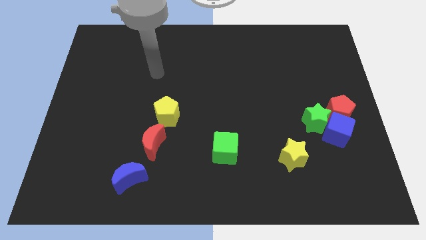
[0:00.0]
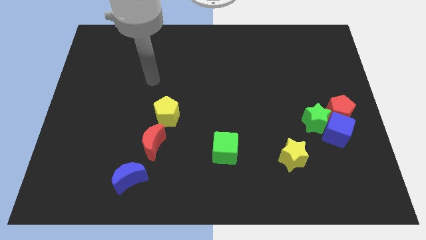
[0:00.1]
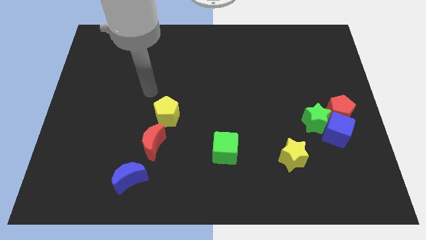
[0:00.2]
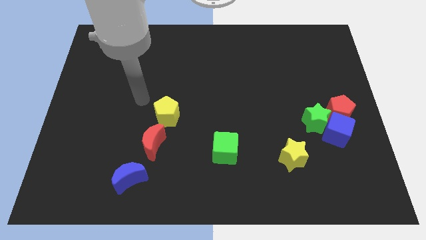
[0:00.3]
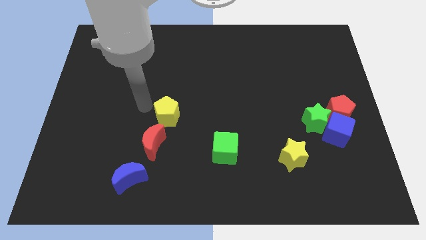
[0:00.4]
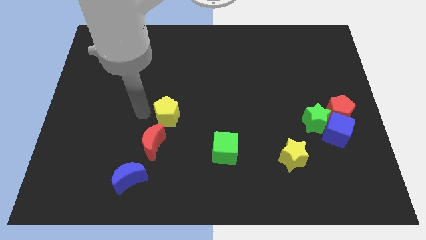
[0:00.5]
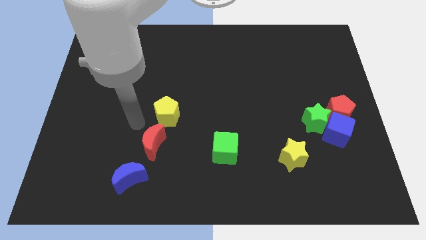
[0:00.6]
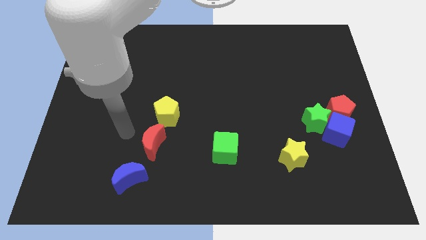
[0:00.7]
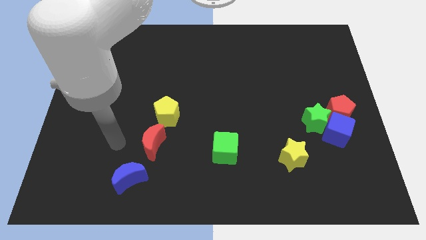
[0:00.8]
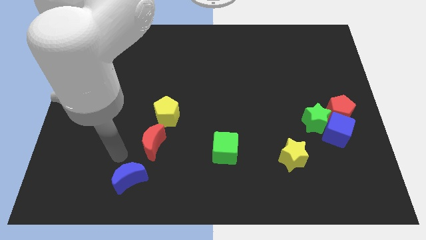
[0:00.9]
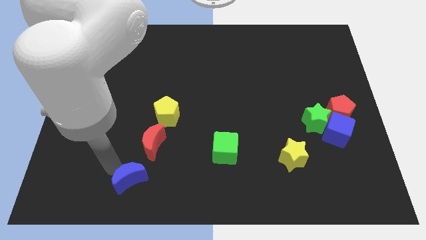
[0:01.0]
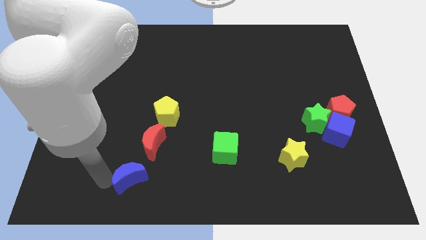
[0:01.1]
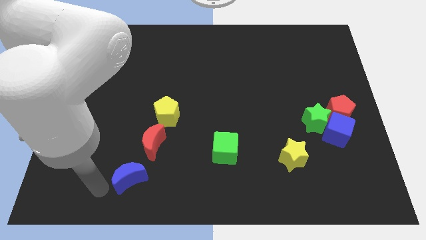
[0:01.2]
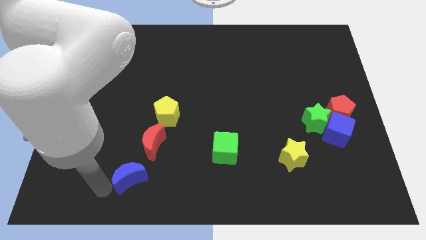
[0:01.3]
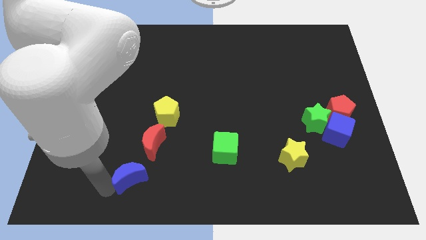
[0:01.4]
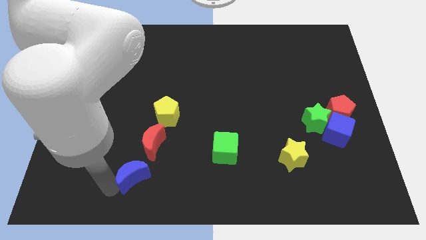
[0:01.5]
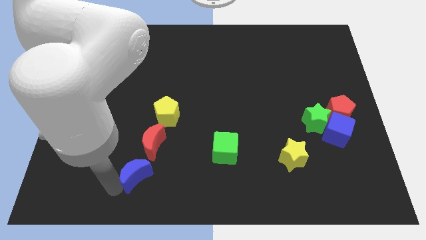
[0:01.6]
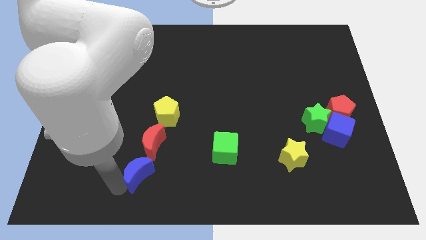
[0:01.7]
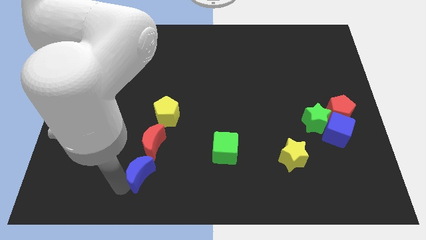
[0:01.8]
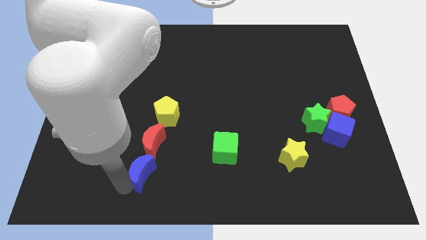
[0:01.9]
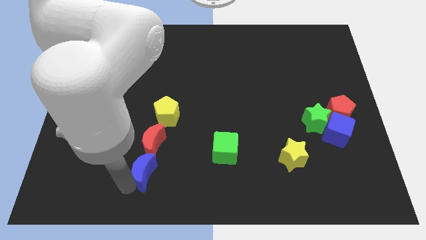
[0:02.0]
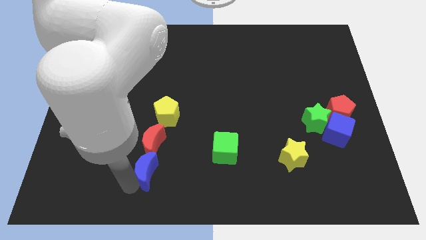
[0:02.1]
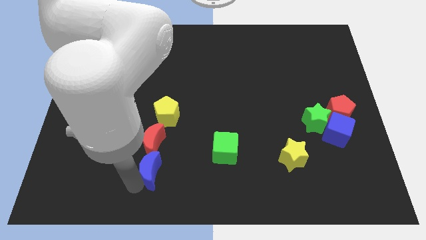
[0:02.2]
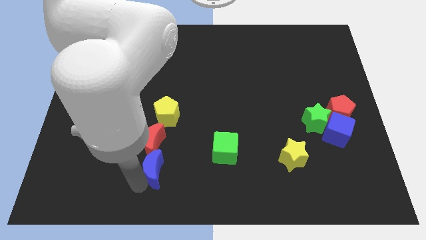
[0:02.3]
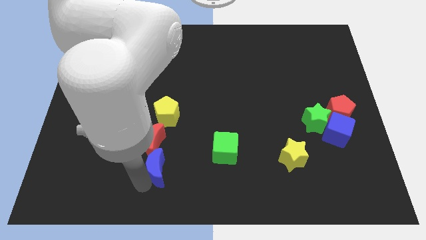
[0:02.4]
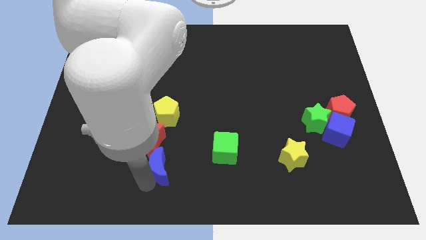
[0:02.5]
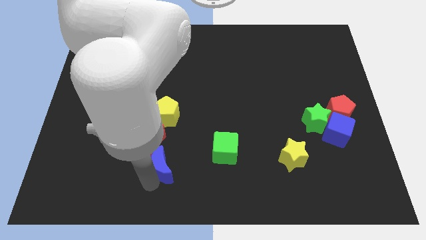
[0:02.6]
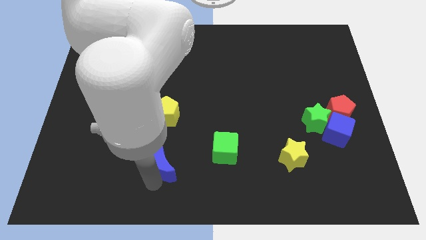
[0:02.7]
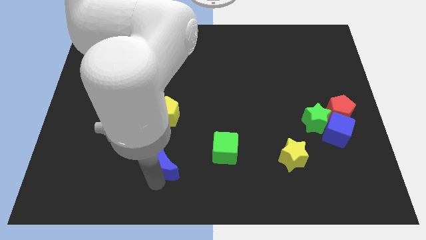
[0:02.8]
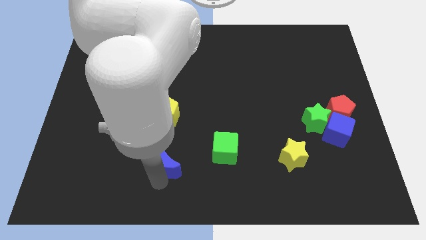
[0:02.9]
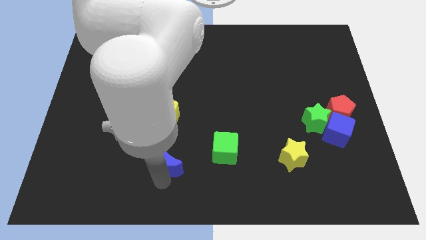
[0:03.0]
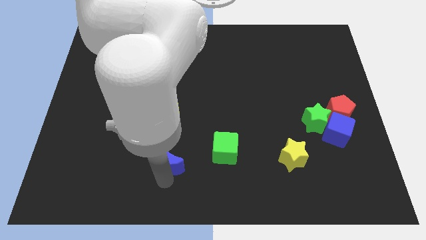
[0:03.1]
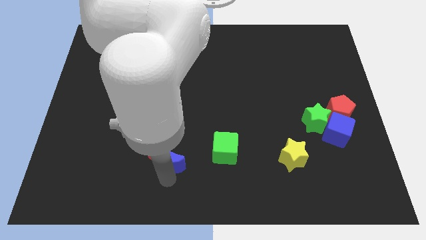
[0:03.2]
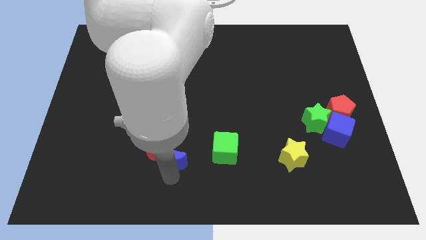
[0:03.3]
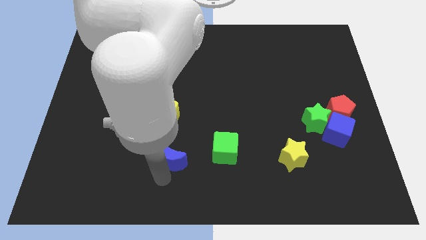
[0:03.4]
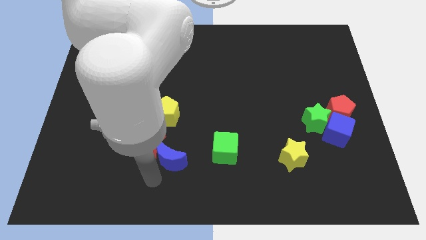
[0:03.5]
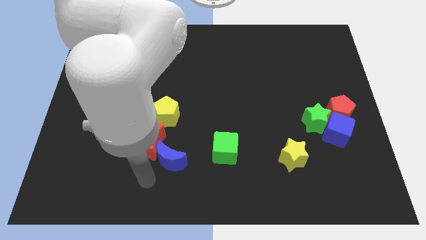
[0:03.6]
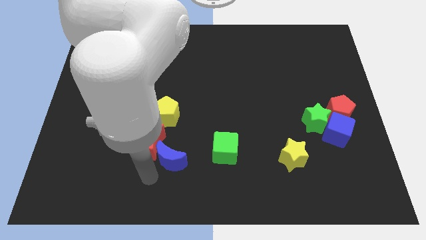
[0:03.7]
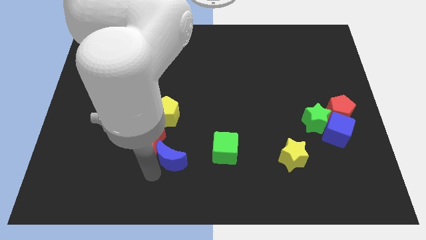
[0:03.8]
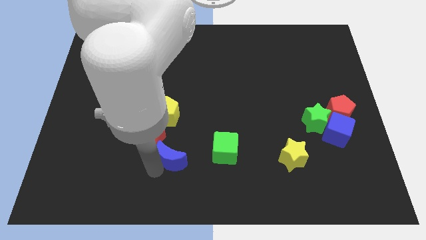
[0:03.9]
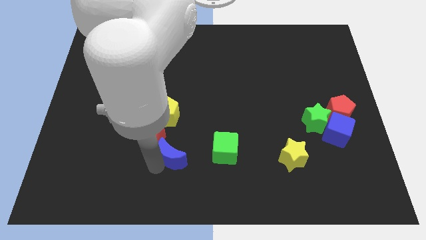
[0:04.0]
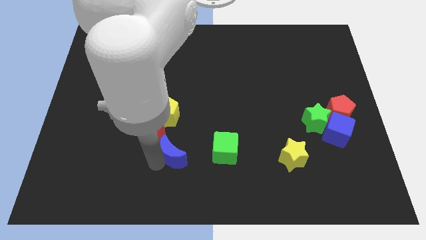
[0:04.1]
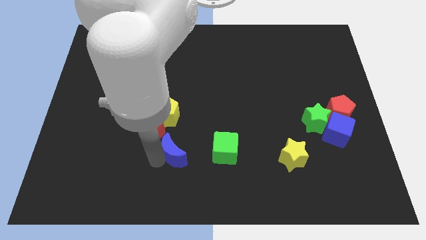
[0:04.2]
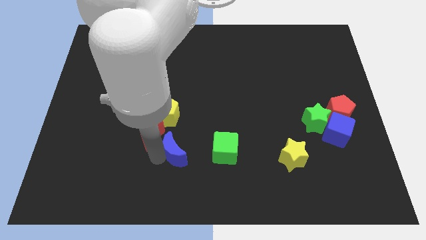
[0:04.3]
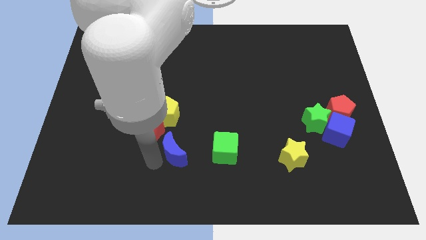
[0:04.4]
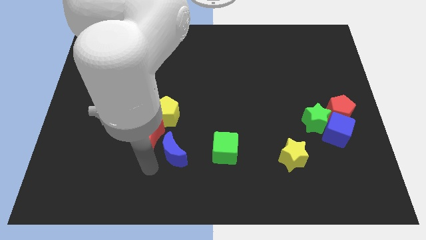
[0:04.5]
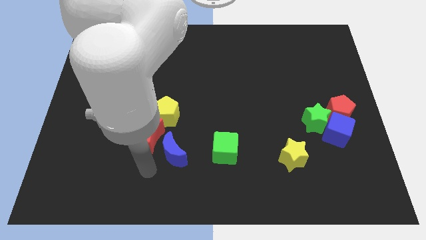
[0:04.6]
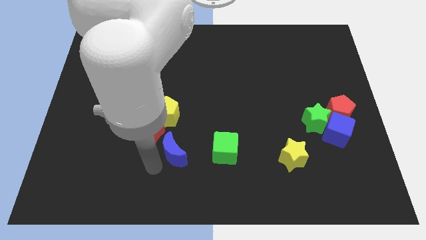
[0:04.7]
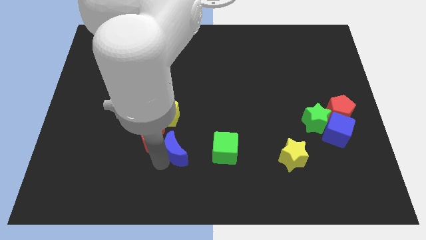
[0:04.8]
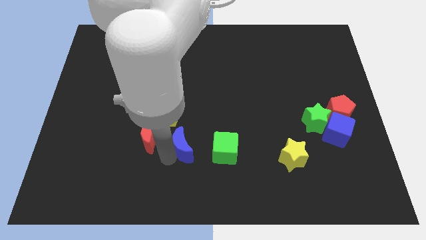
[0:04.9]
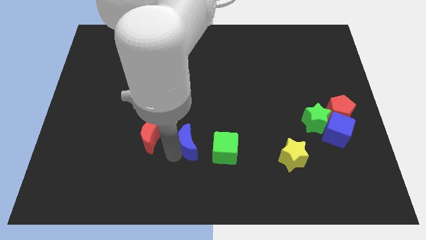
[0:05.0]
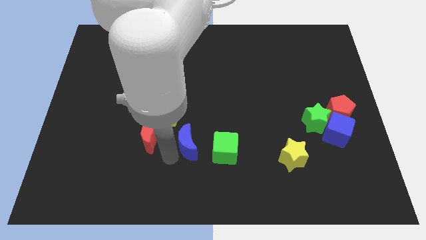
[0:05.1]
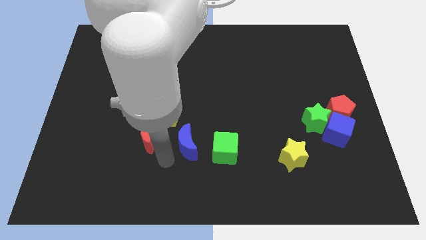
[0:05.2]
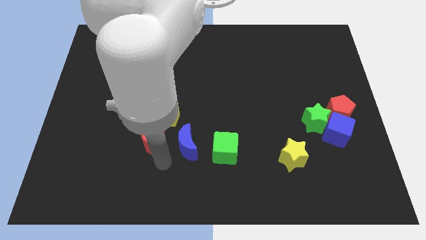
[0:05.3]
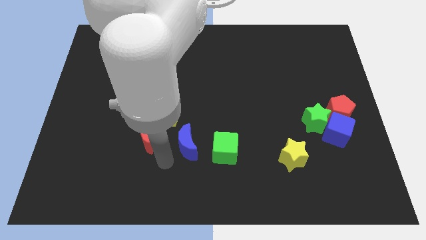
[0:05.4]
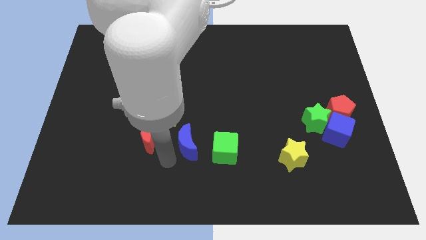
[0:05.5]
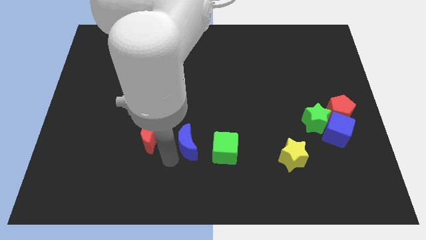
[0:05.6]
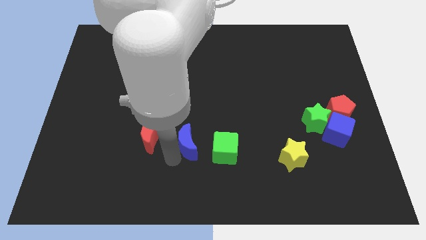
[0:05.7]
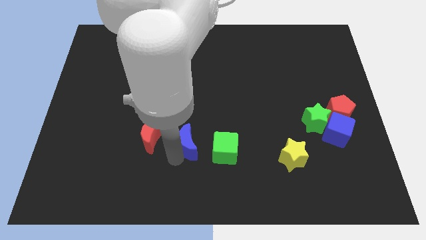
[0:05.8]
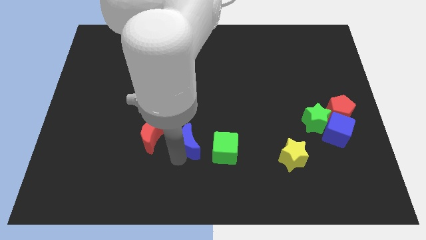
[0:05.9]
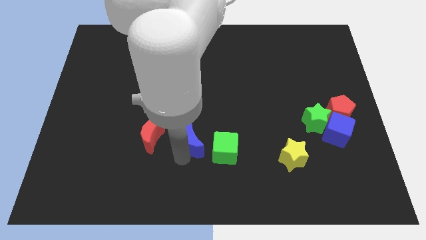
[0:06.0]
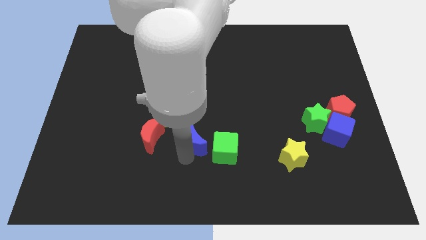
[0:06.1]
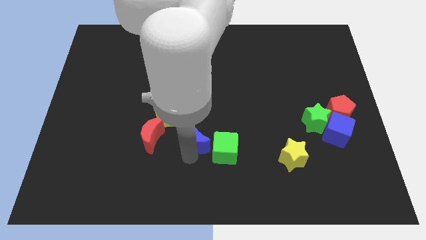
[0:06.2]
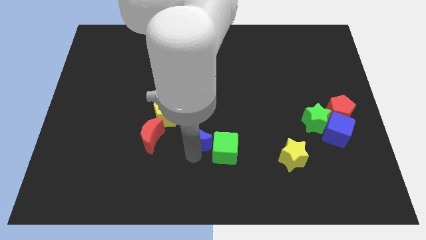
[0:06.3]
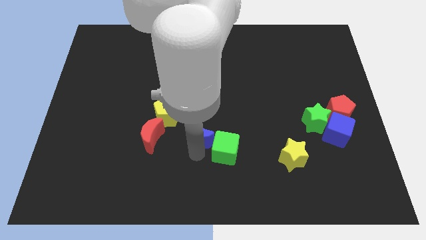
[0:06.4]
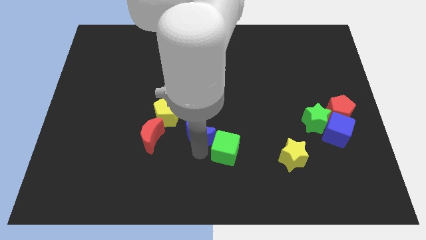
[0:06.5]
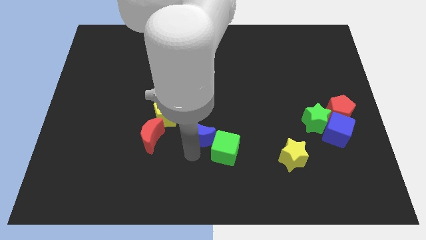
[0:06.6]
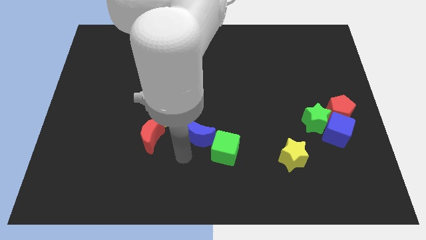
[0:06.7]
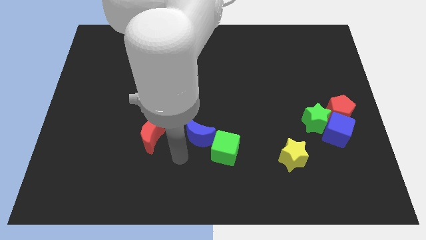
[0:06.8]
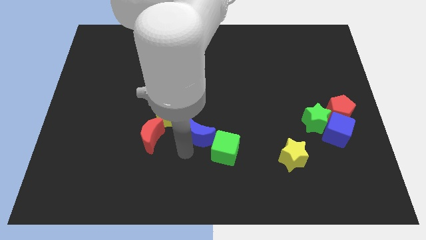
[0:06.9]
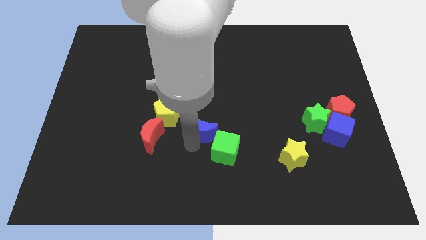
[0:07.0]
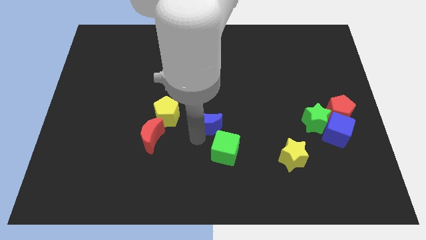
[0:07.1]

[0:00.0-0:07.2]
move the blue moon to the top side of the green cube
